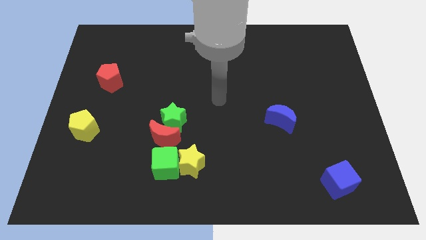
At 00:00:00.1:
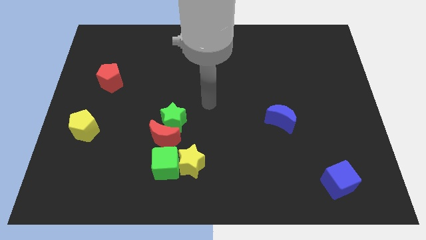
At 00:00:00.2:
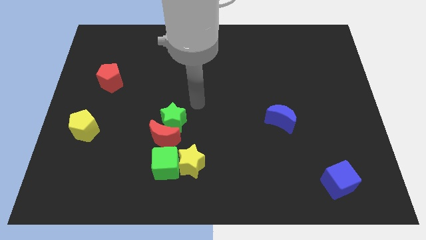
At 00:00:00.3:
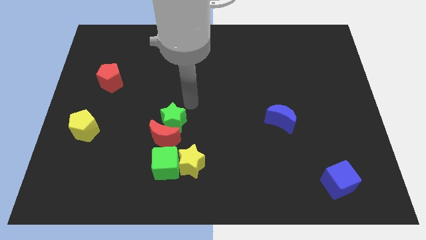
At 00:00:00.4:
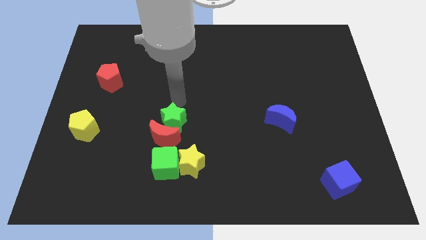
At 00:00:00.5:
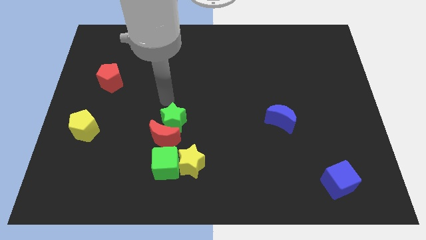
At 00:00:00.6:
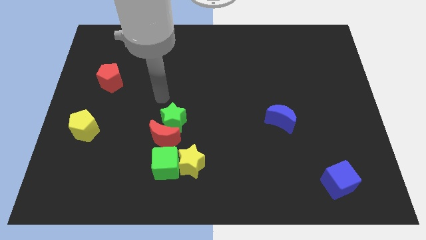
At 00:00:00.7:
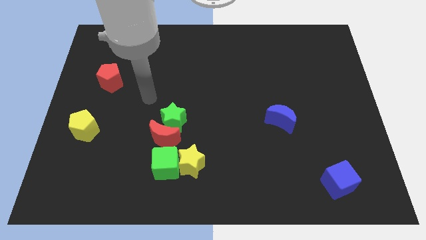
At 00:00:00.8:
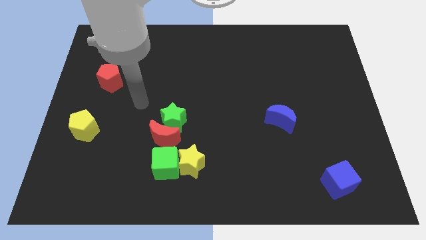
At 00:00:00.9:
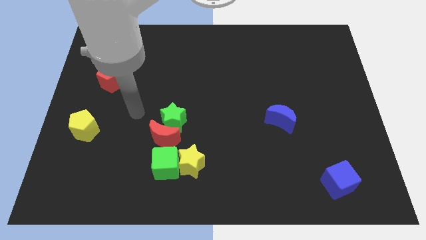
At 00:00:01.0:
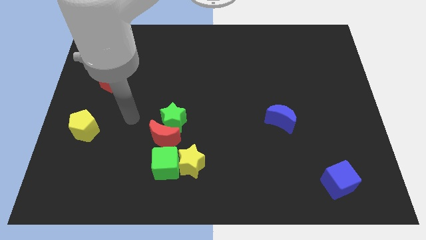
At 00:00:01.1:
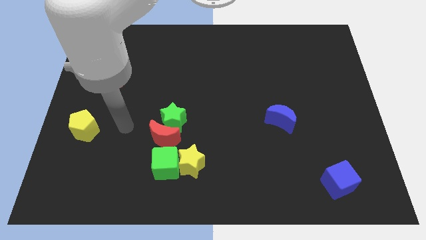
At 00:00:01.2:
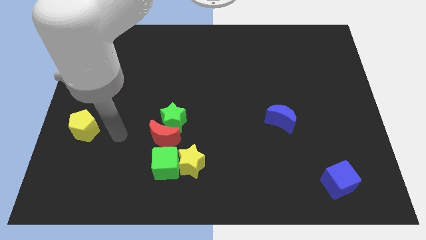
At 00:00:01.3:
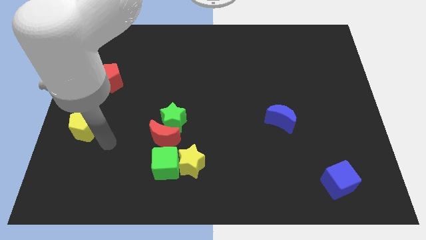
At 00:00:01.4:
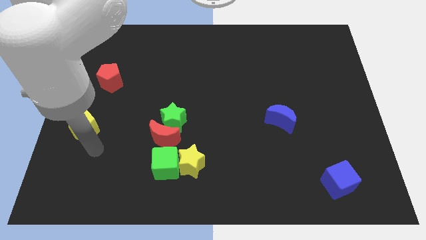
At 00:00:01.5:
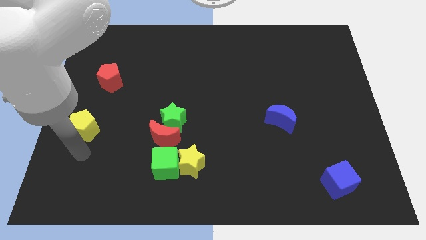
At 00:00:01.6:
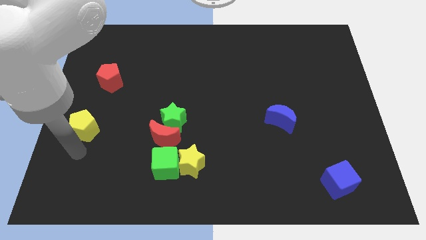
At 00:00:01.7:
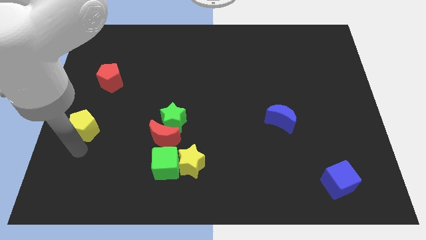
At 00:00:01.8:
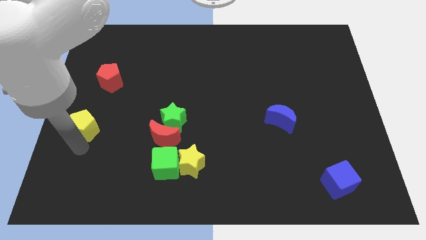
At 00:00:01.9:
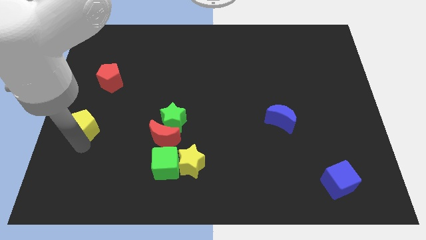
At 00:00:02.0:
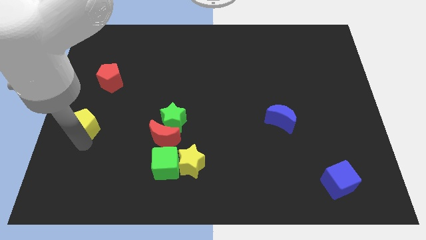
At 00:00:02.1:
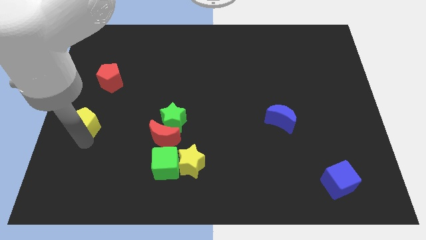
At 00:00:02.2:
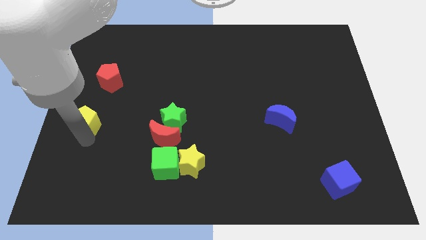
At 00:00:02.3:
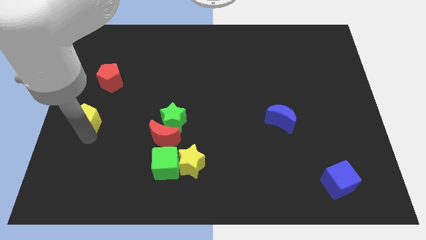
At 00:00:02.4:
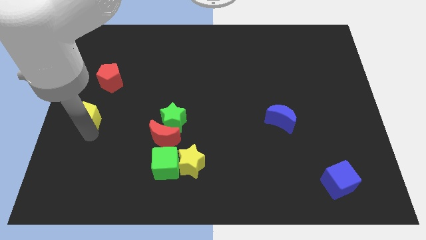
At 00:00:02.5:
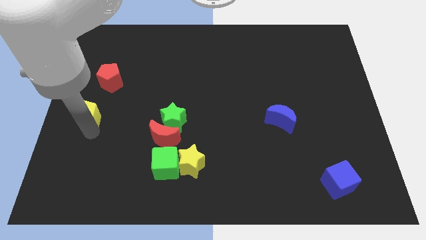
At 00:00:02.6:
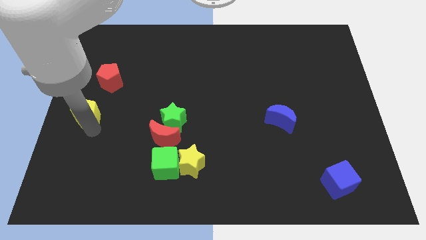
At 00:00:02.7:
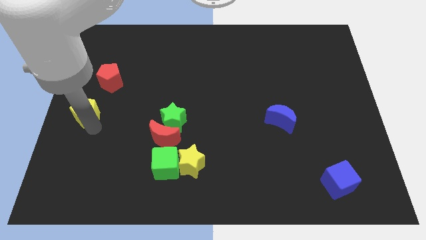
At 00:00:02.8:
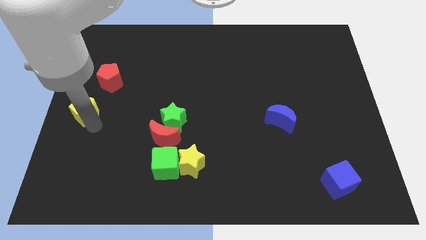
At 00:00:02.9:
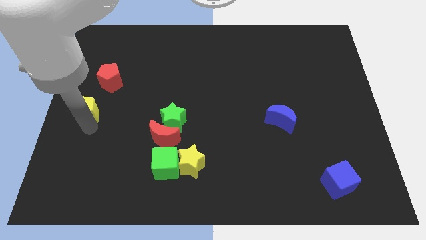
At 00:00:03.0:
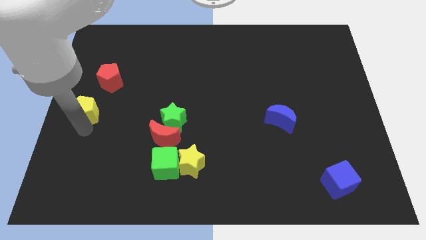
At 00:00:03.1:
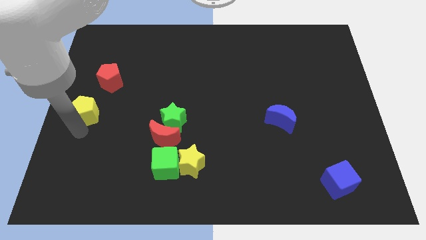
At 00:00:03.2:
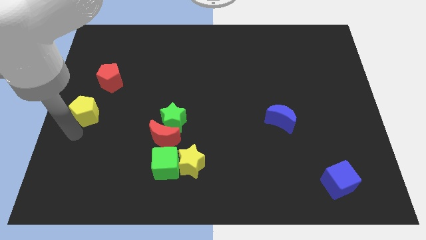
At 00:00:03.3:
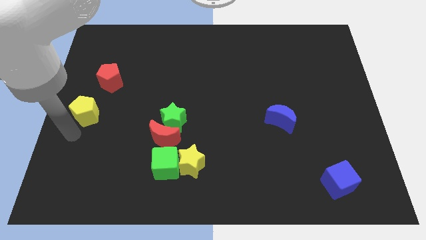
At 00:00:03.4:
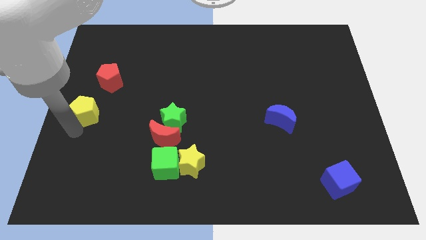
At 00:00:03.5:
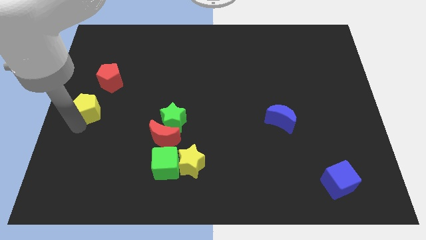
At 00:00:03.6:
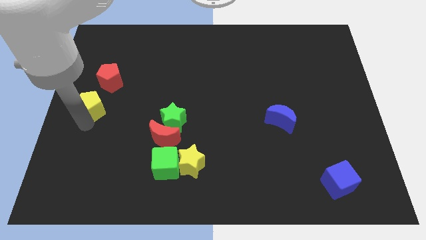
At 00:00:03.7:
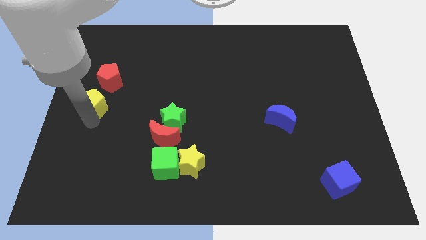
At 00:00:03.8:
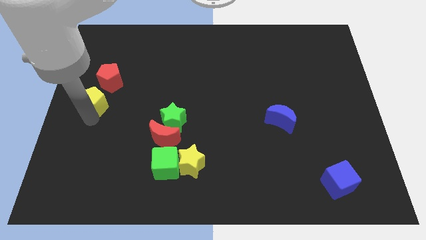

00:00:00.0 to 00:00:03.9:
slightly push the yellow pentagon upwards

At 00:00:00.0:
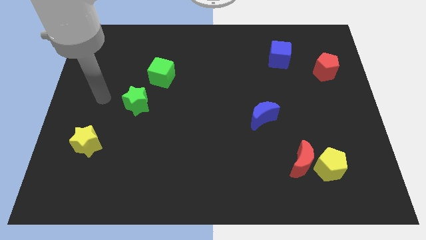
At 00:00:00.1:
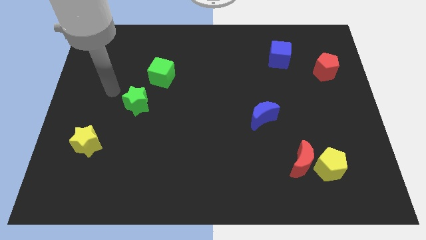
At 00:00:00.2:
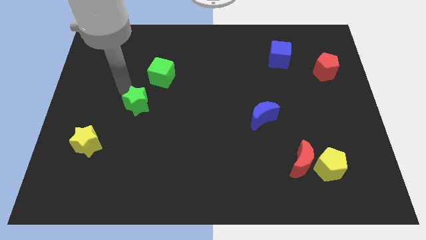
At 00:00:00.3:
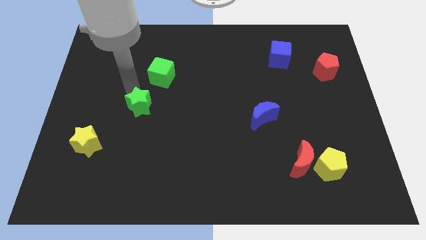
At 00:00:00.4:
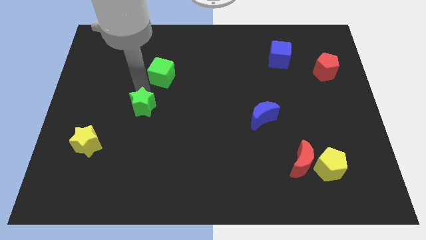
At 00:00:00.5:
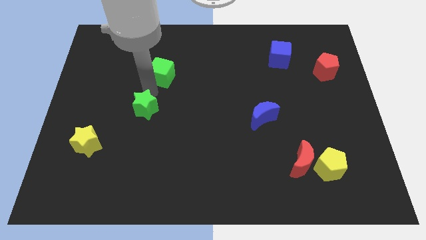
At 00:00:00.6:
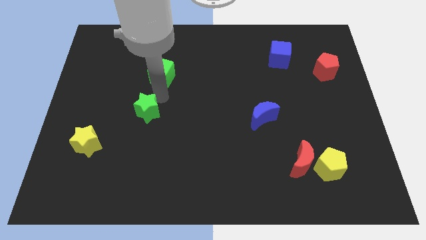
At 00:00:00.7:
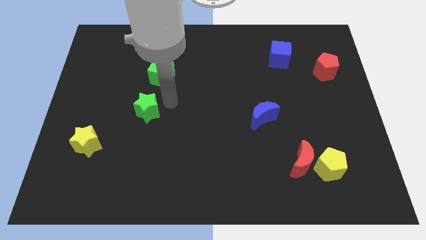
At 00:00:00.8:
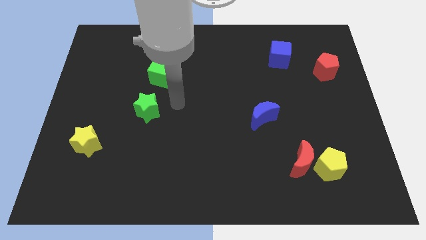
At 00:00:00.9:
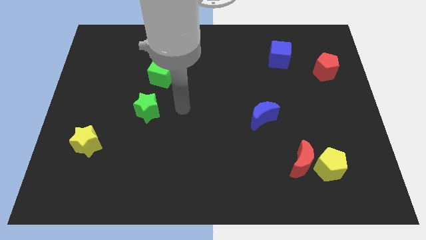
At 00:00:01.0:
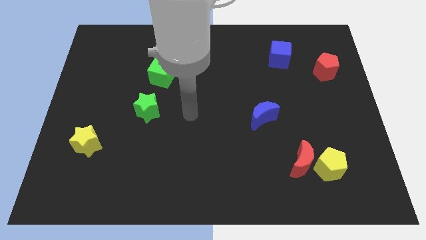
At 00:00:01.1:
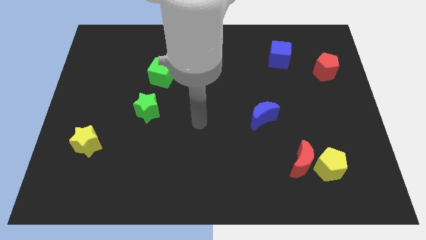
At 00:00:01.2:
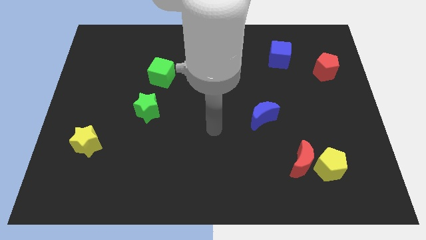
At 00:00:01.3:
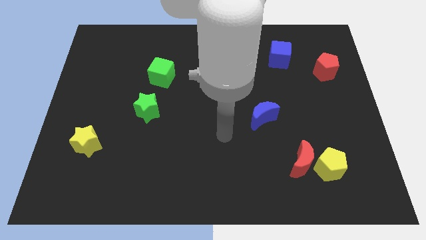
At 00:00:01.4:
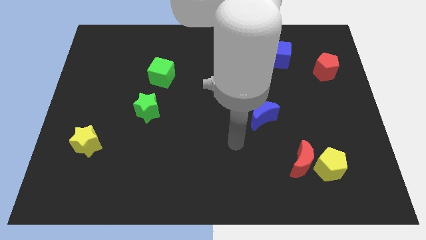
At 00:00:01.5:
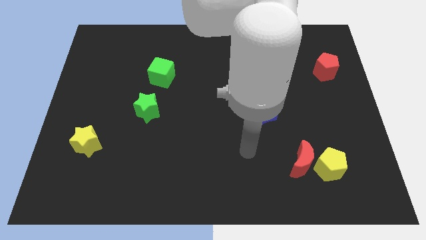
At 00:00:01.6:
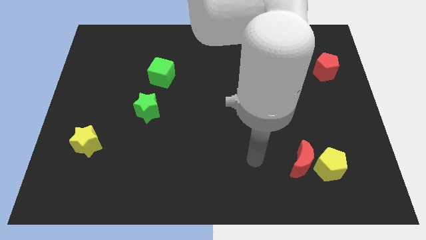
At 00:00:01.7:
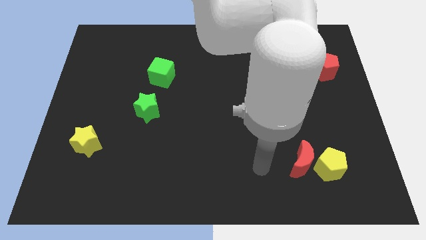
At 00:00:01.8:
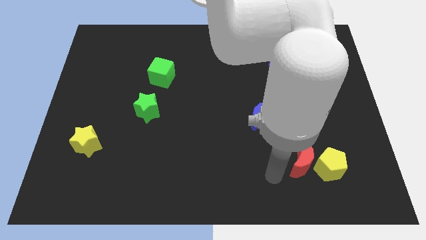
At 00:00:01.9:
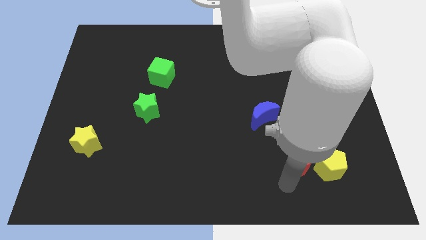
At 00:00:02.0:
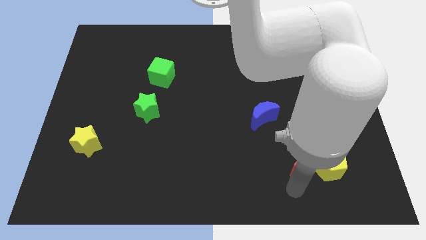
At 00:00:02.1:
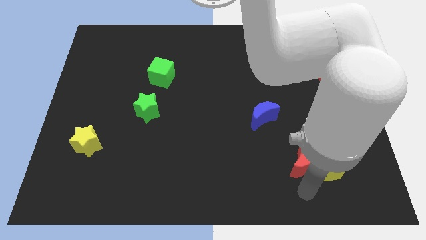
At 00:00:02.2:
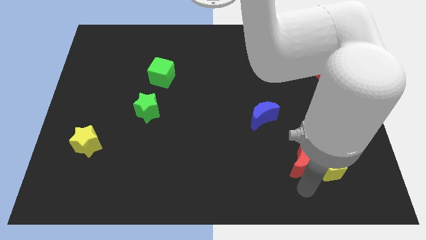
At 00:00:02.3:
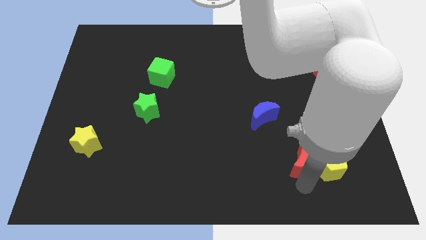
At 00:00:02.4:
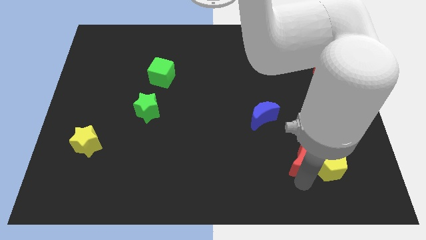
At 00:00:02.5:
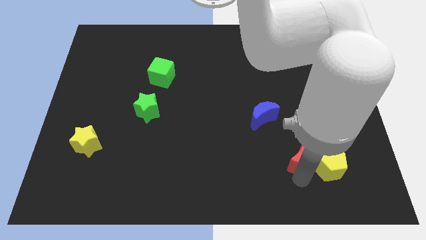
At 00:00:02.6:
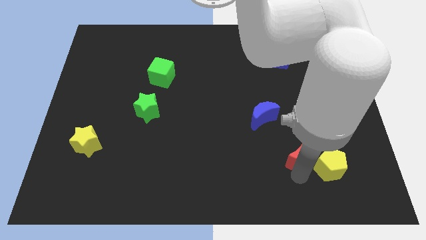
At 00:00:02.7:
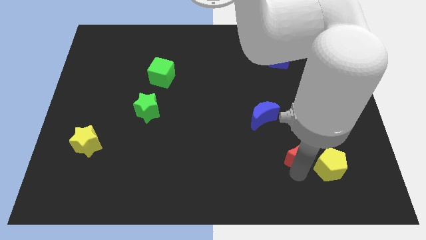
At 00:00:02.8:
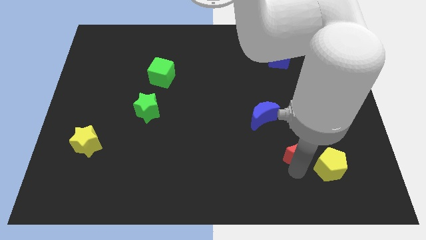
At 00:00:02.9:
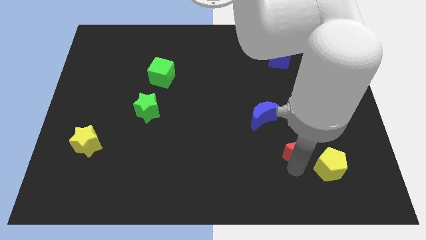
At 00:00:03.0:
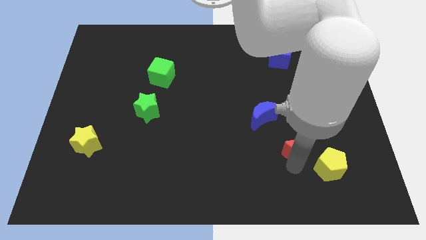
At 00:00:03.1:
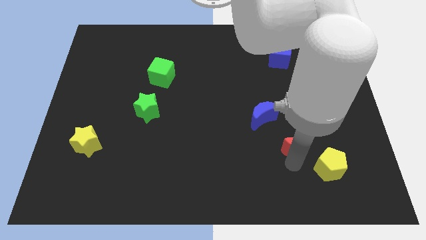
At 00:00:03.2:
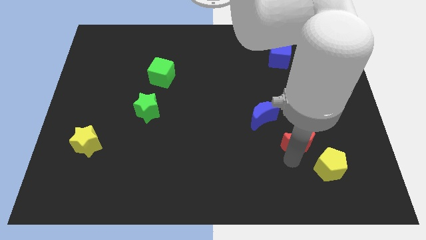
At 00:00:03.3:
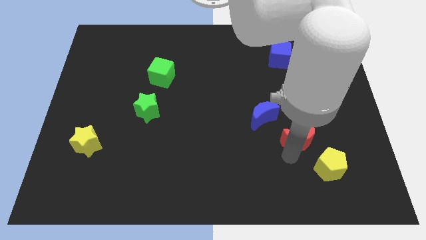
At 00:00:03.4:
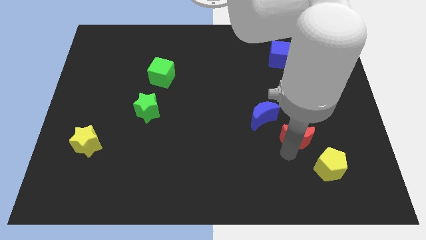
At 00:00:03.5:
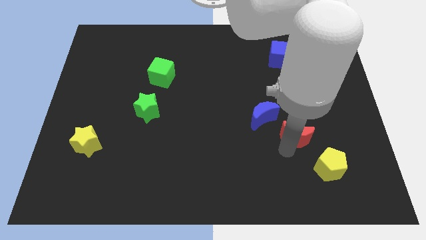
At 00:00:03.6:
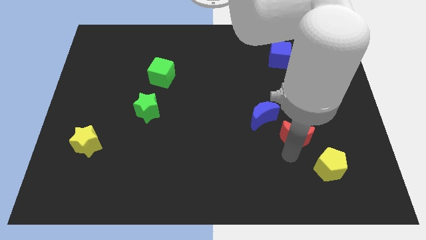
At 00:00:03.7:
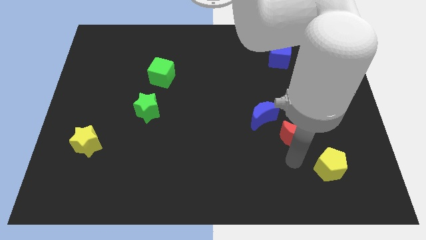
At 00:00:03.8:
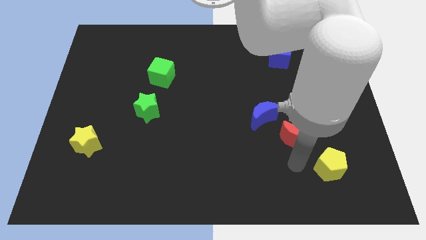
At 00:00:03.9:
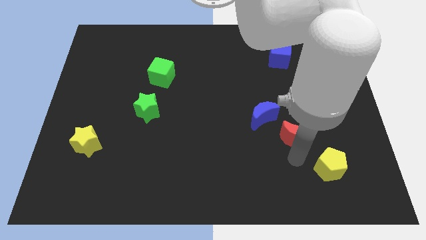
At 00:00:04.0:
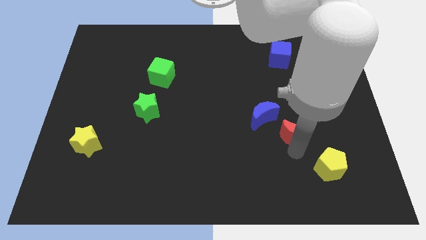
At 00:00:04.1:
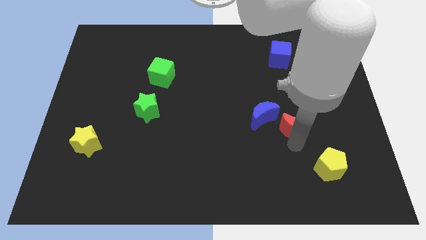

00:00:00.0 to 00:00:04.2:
slightly push the red moon upwards

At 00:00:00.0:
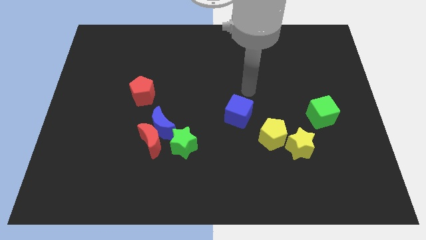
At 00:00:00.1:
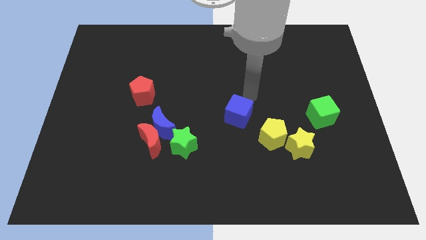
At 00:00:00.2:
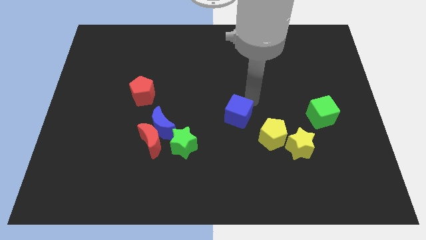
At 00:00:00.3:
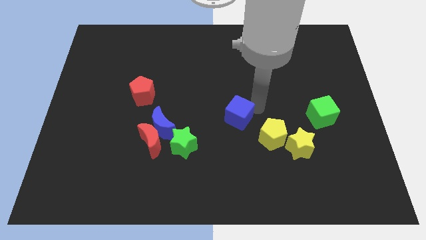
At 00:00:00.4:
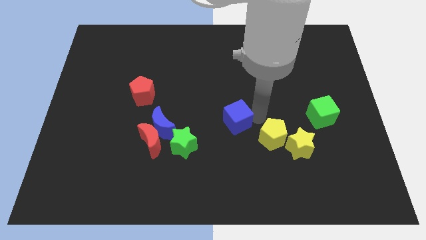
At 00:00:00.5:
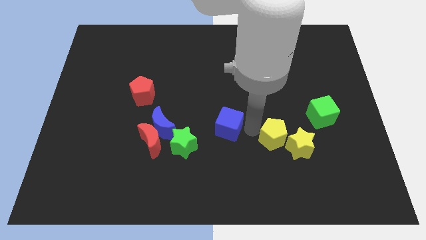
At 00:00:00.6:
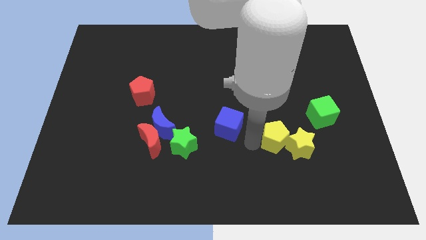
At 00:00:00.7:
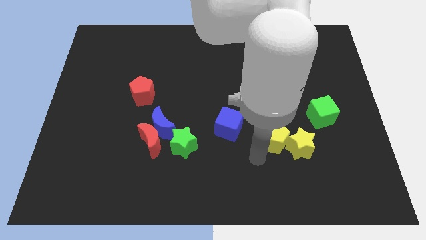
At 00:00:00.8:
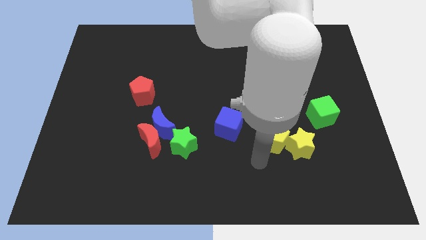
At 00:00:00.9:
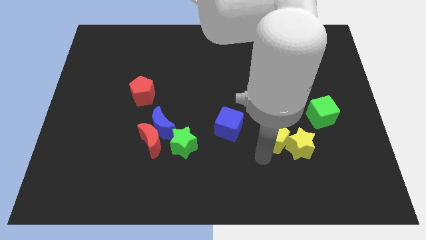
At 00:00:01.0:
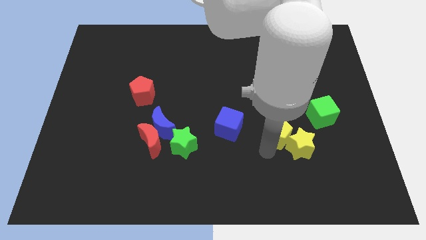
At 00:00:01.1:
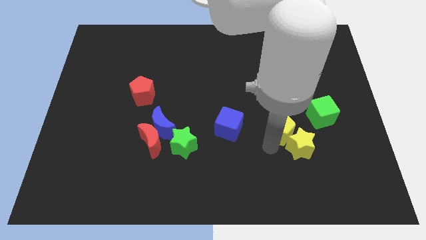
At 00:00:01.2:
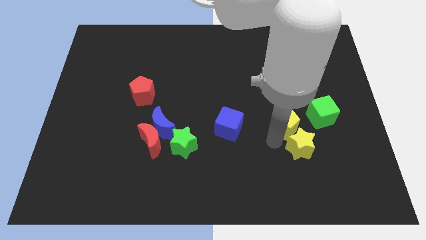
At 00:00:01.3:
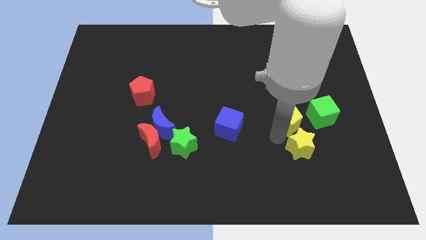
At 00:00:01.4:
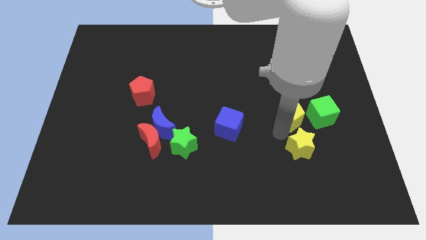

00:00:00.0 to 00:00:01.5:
move the yellow pentagon up and right a little bit
